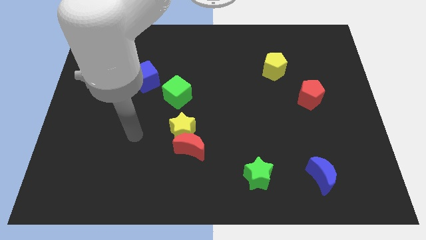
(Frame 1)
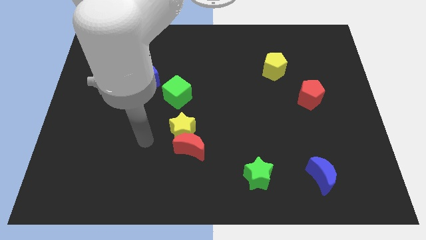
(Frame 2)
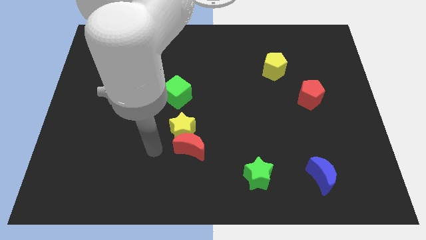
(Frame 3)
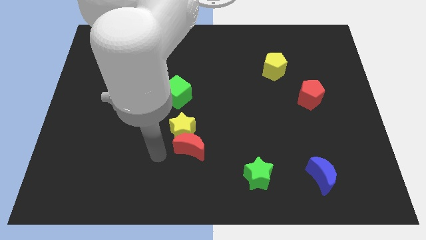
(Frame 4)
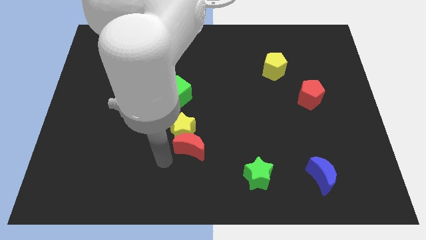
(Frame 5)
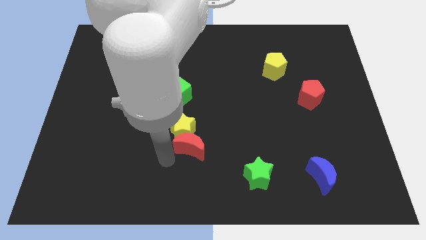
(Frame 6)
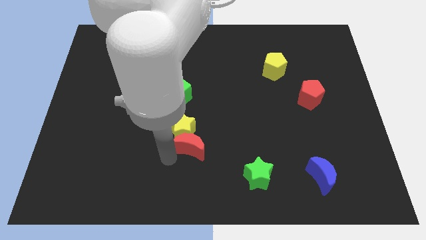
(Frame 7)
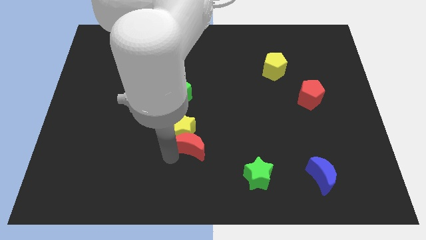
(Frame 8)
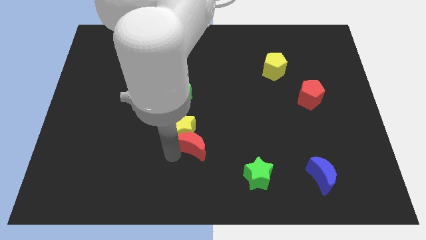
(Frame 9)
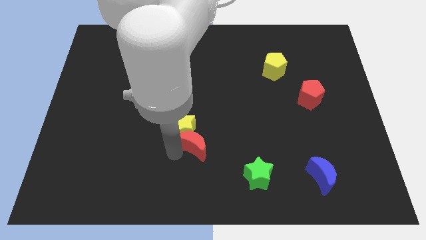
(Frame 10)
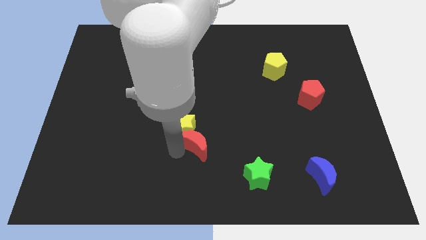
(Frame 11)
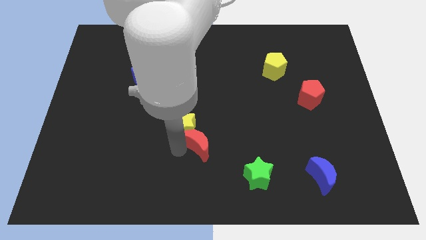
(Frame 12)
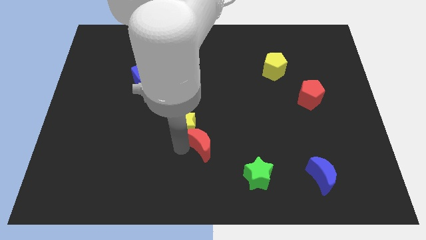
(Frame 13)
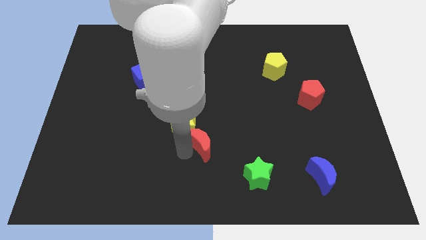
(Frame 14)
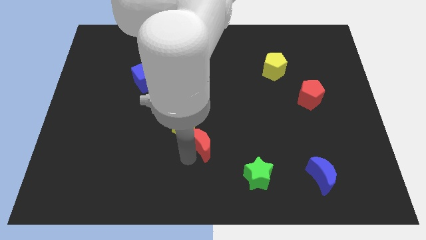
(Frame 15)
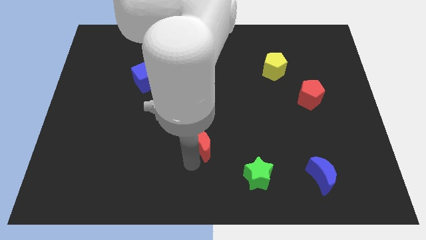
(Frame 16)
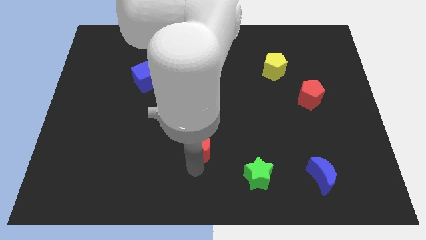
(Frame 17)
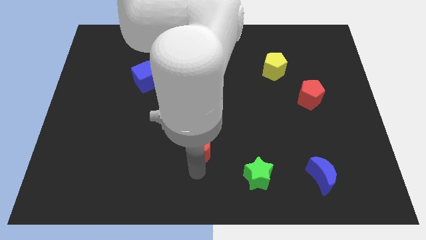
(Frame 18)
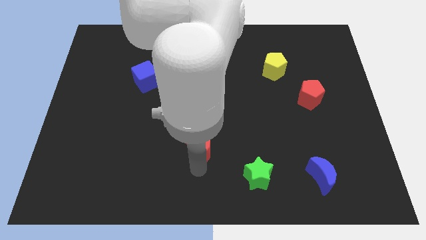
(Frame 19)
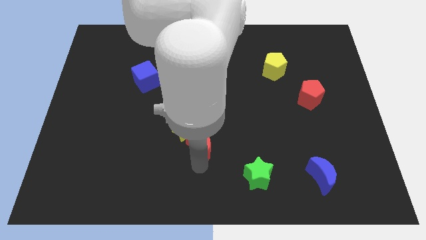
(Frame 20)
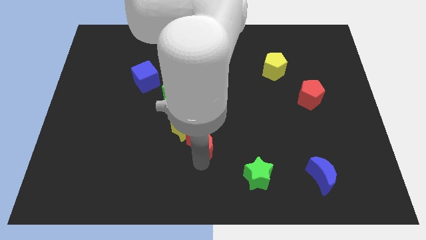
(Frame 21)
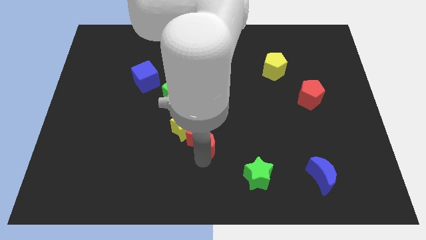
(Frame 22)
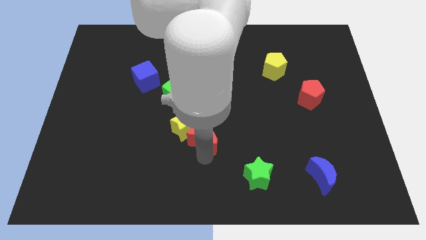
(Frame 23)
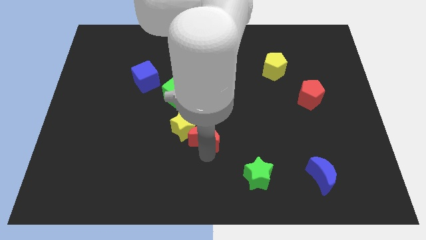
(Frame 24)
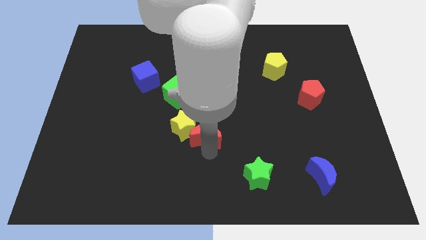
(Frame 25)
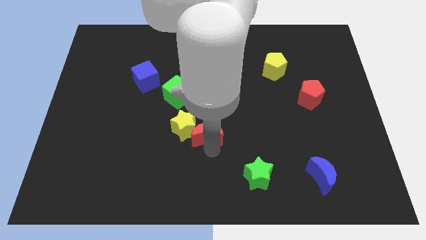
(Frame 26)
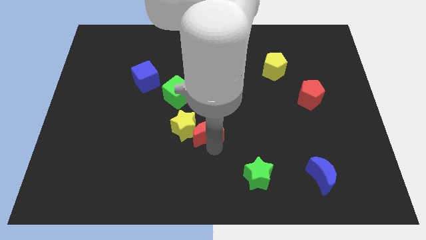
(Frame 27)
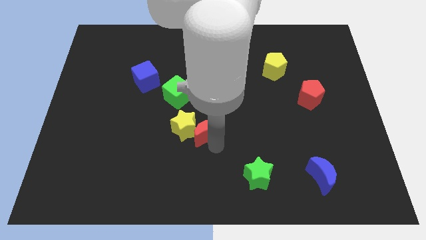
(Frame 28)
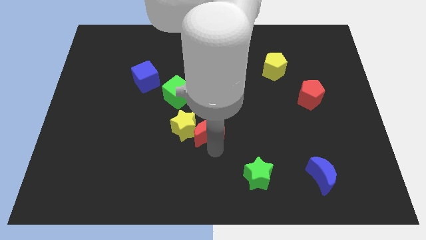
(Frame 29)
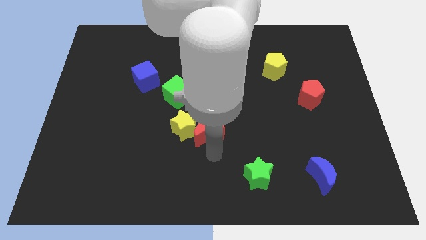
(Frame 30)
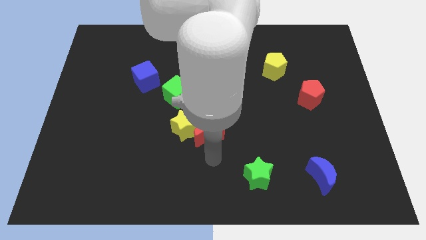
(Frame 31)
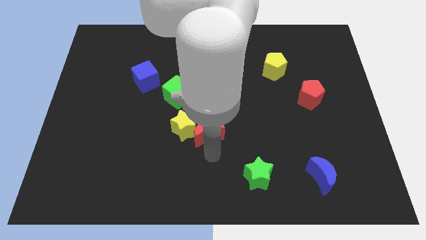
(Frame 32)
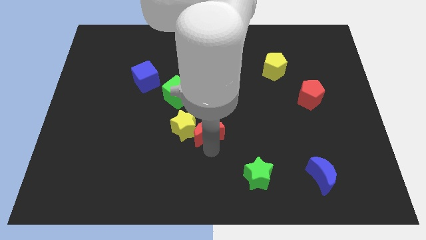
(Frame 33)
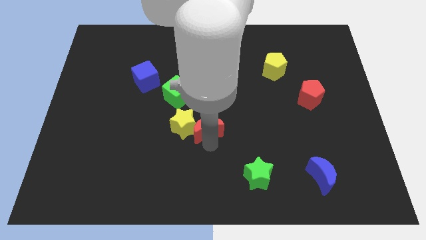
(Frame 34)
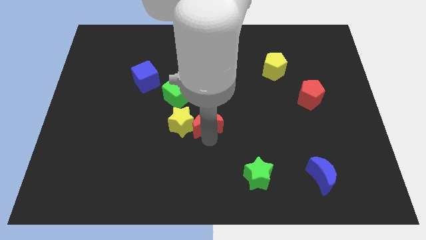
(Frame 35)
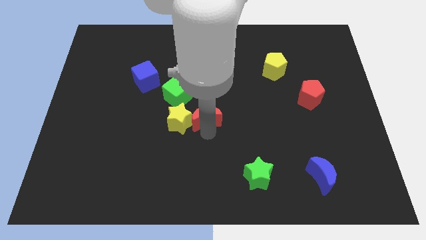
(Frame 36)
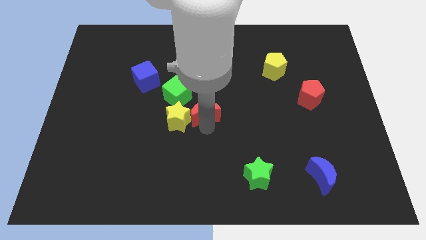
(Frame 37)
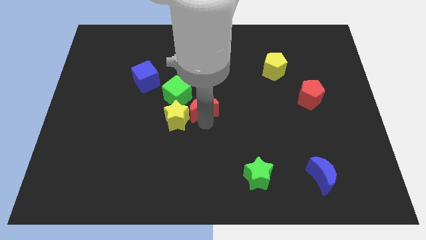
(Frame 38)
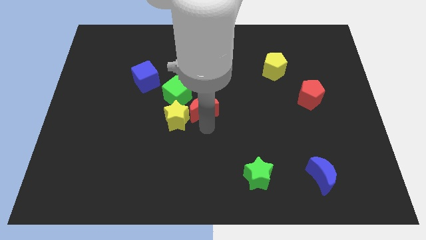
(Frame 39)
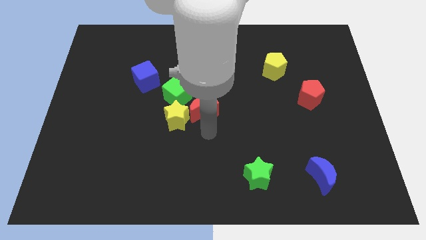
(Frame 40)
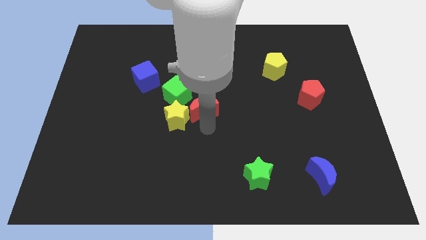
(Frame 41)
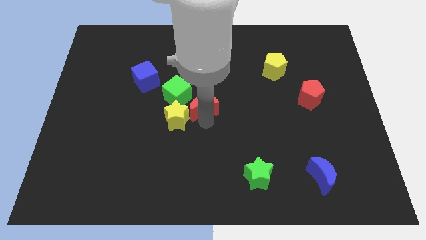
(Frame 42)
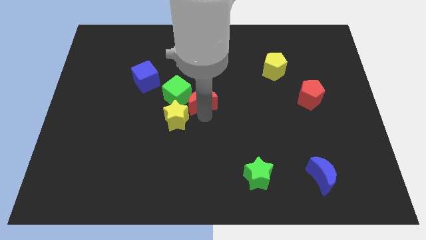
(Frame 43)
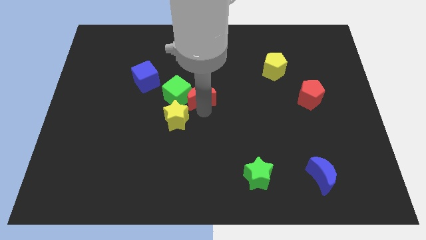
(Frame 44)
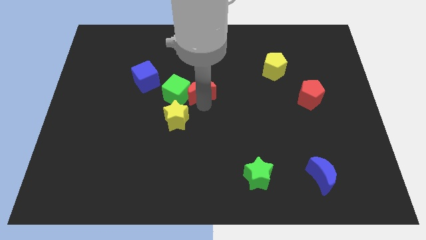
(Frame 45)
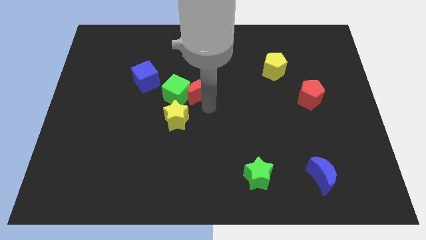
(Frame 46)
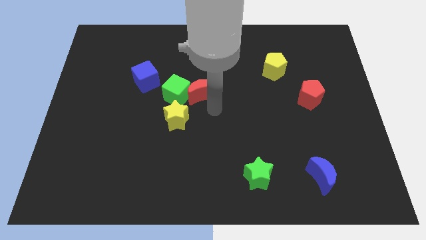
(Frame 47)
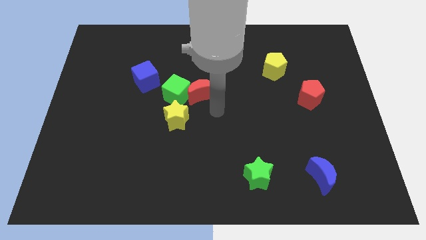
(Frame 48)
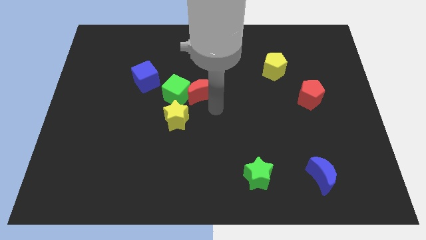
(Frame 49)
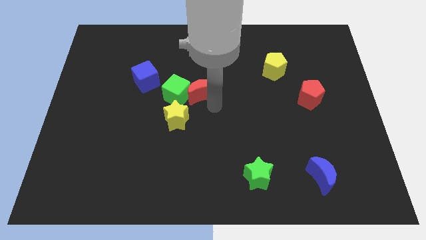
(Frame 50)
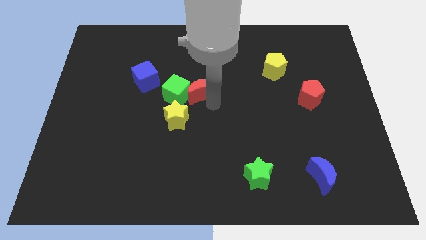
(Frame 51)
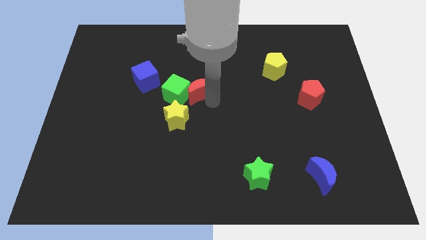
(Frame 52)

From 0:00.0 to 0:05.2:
push the red moon to the right side of the blue cube

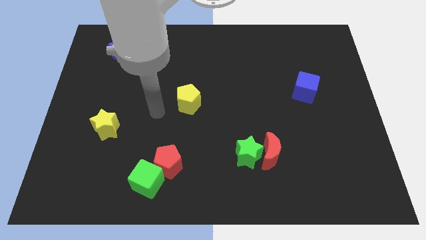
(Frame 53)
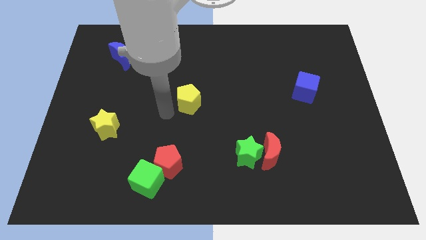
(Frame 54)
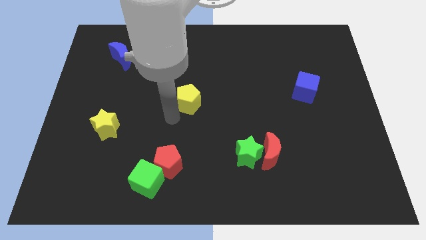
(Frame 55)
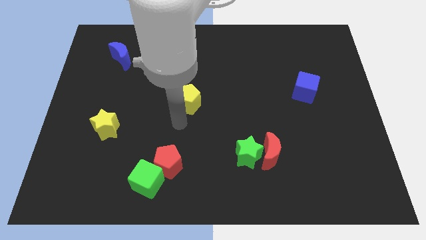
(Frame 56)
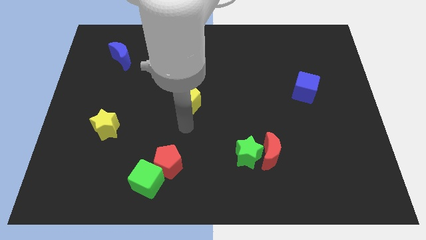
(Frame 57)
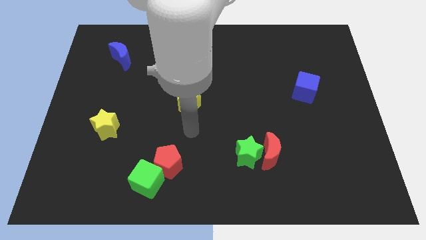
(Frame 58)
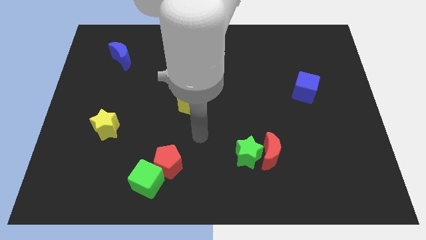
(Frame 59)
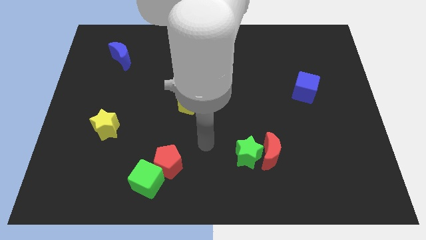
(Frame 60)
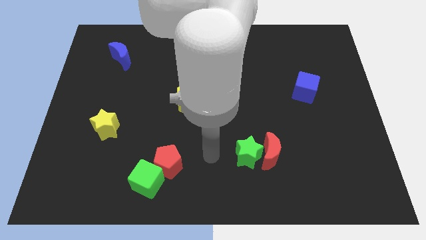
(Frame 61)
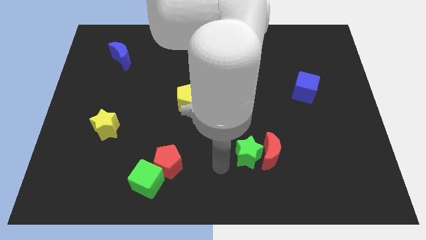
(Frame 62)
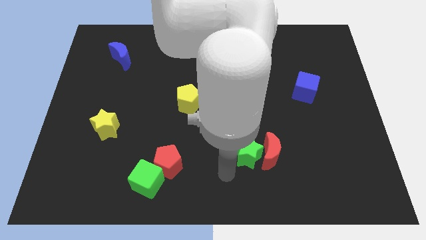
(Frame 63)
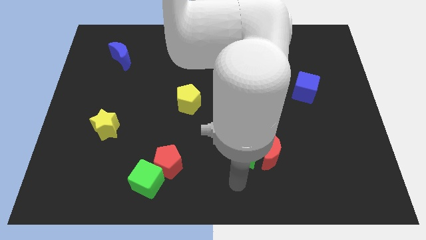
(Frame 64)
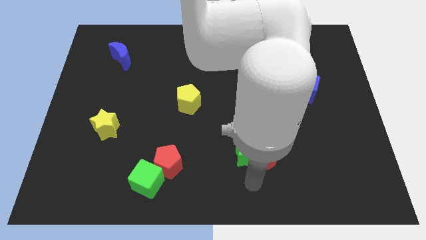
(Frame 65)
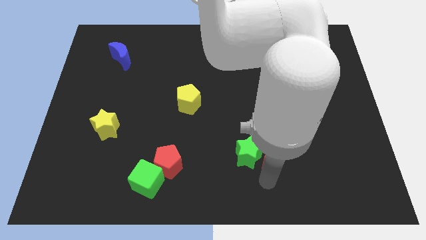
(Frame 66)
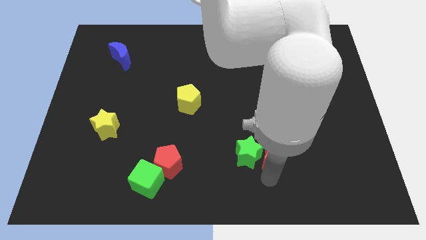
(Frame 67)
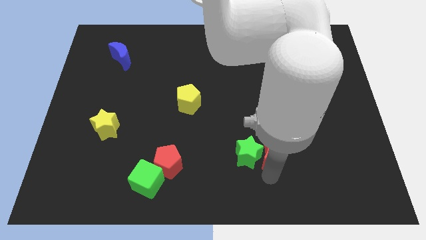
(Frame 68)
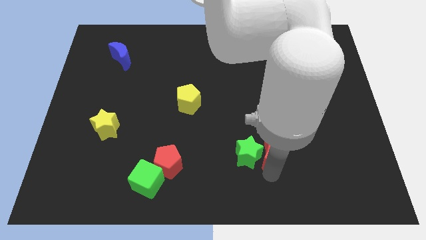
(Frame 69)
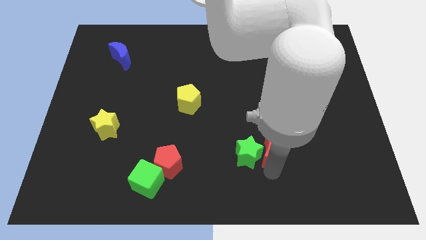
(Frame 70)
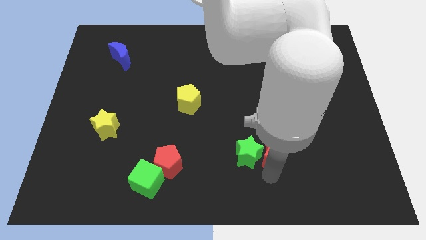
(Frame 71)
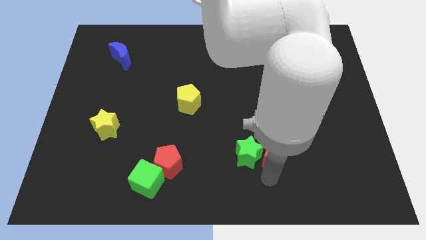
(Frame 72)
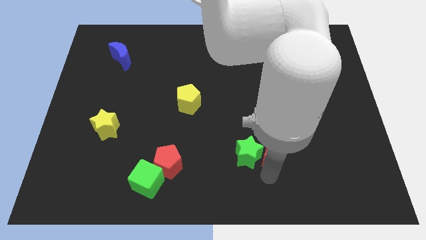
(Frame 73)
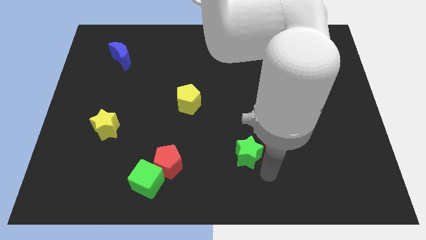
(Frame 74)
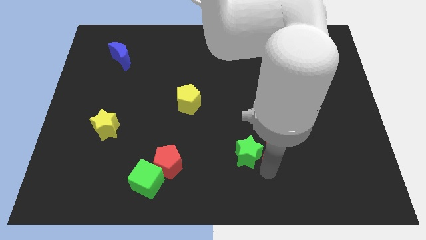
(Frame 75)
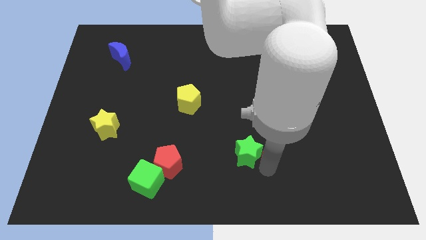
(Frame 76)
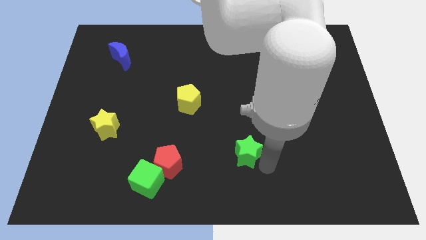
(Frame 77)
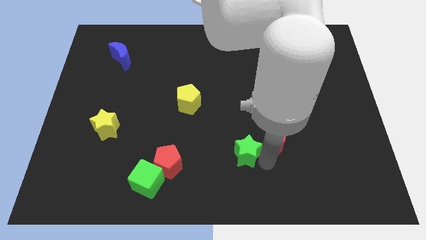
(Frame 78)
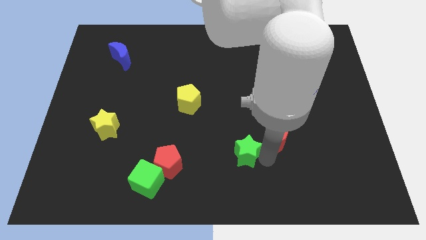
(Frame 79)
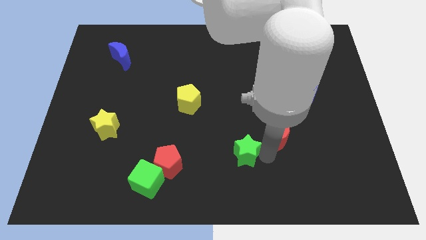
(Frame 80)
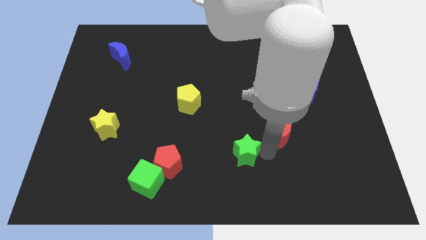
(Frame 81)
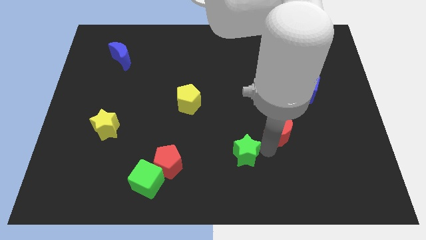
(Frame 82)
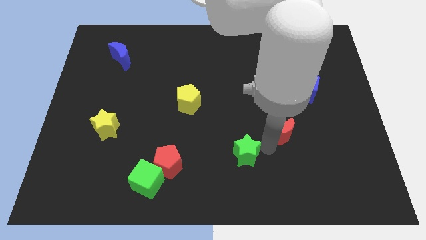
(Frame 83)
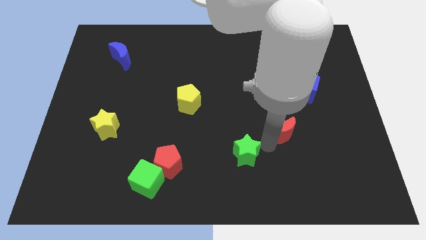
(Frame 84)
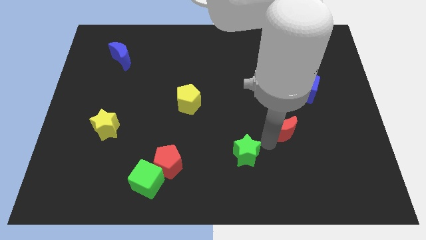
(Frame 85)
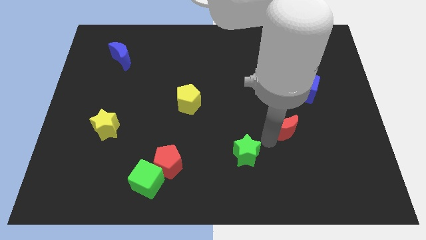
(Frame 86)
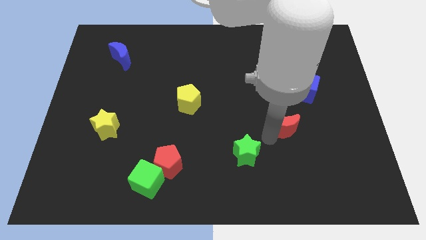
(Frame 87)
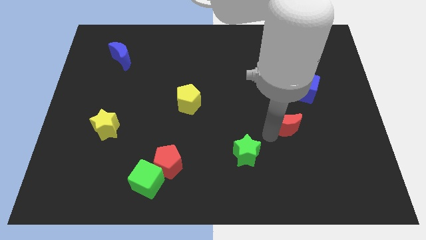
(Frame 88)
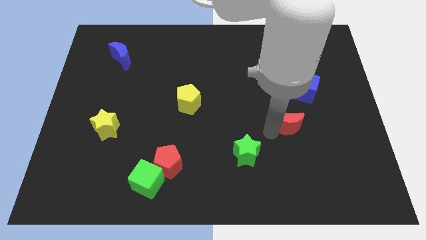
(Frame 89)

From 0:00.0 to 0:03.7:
put the red moon diagonally down and to the left of the blue cube
